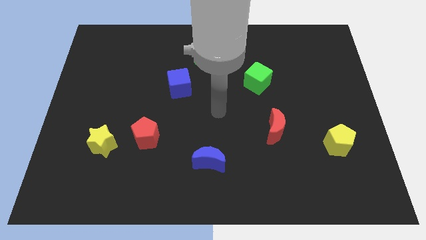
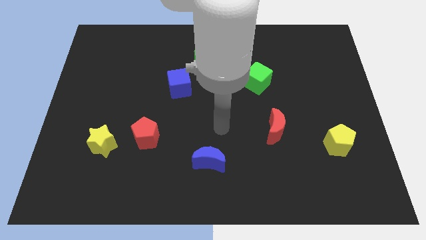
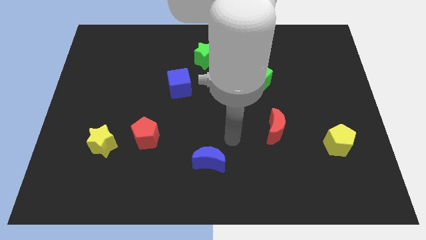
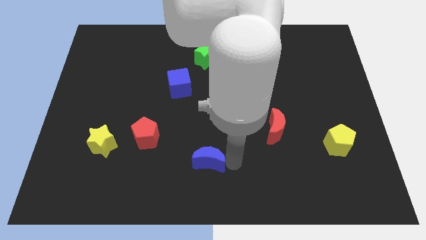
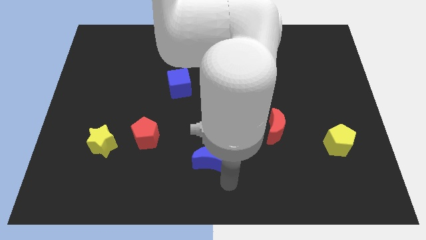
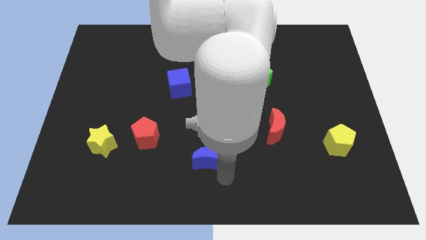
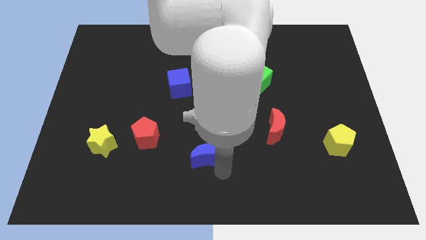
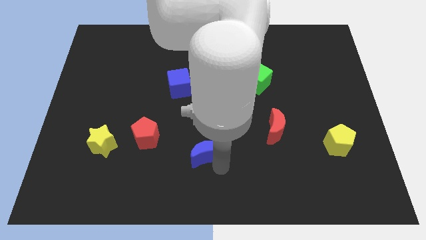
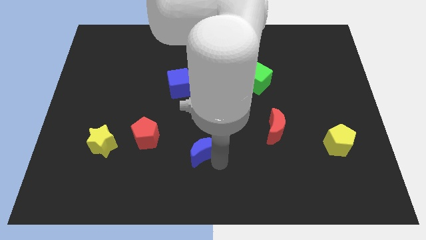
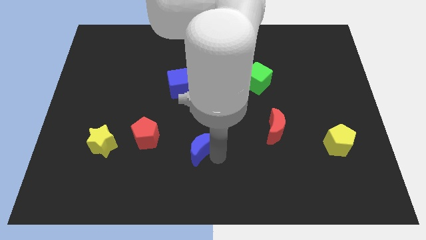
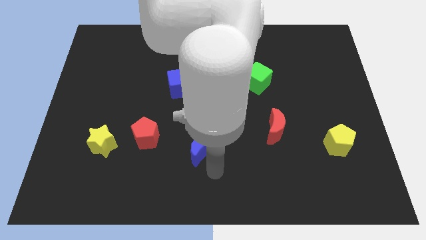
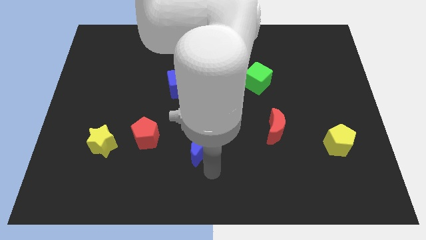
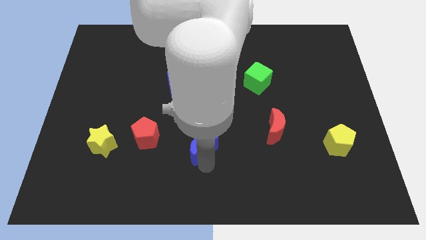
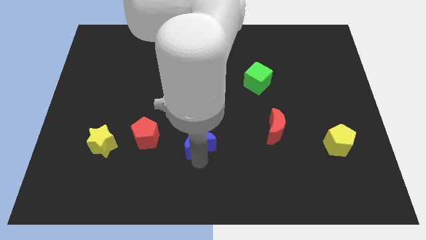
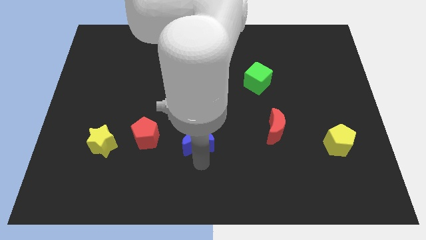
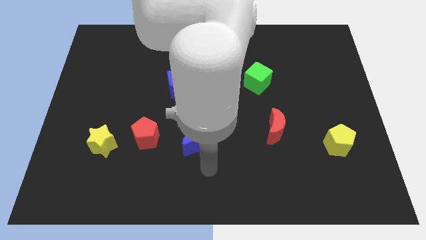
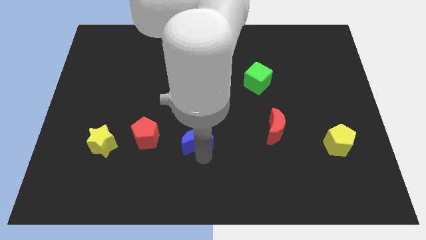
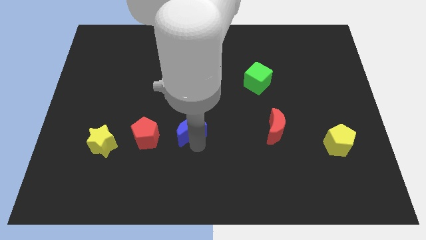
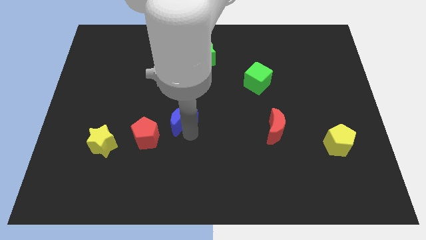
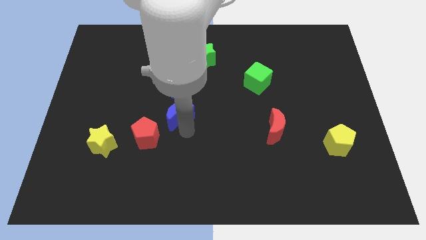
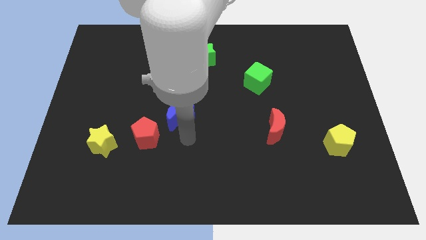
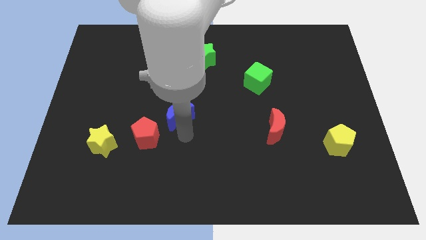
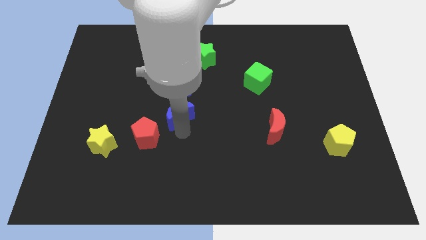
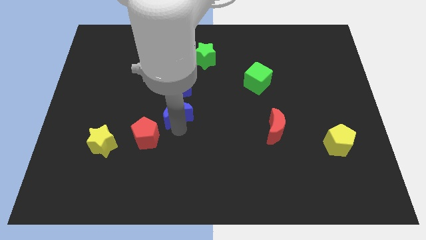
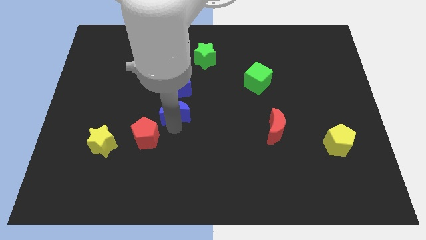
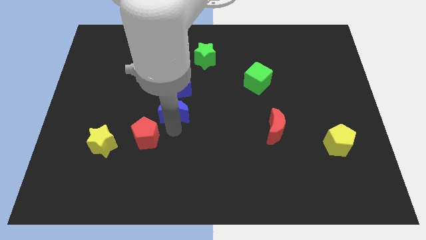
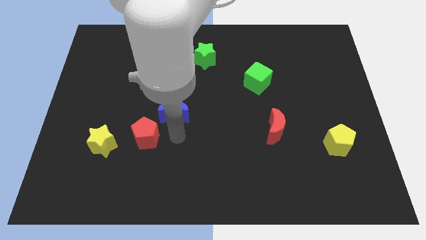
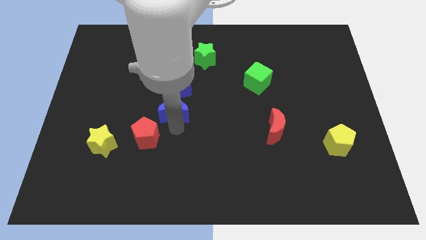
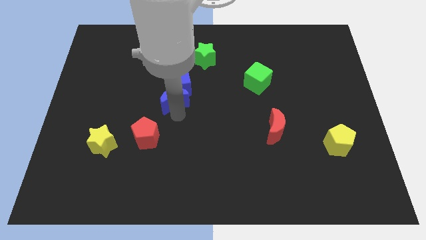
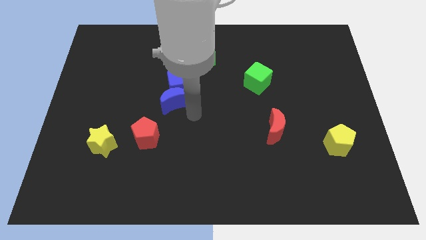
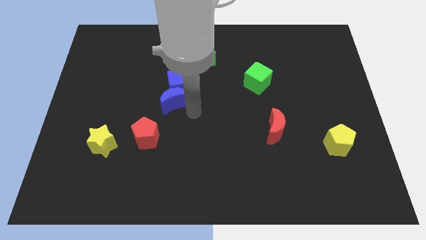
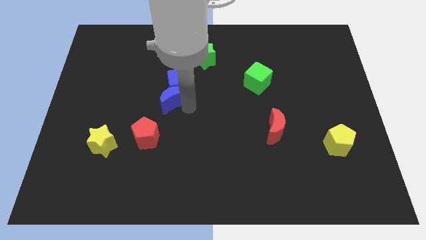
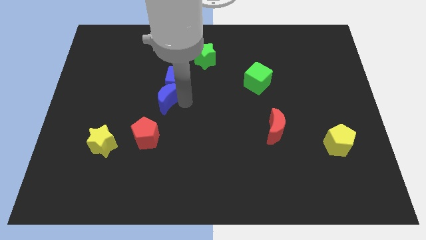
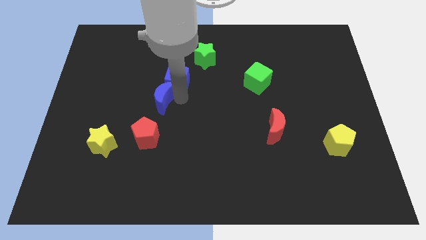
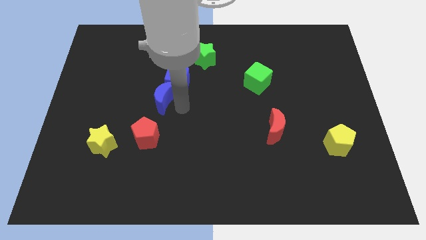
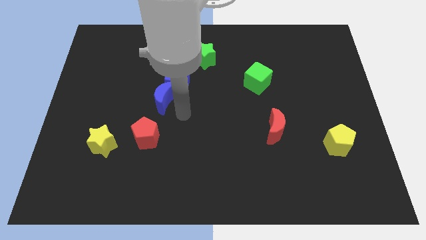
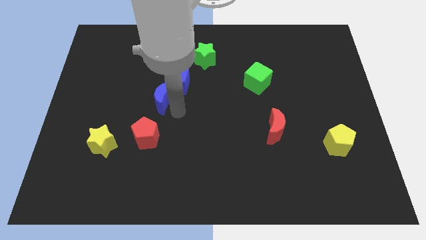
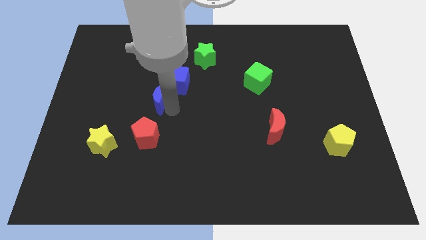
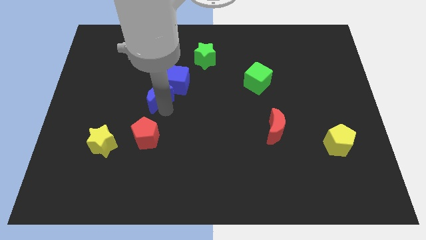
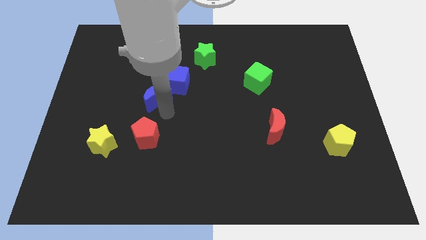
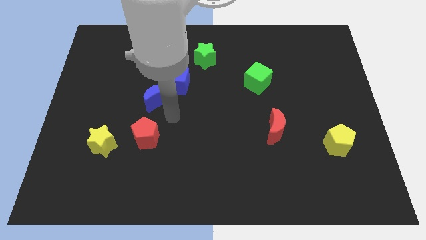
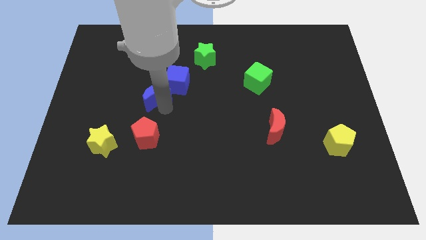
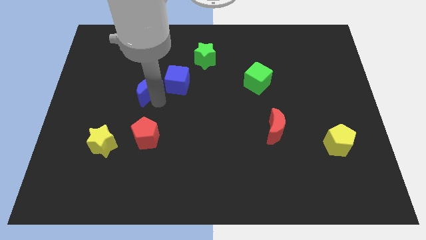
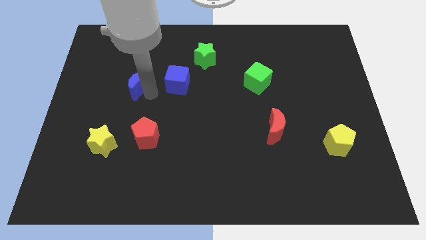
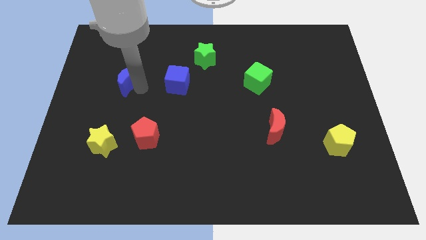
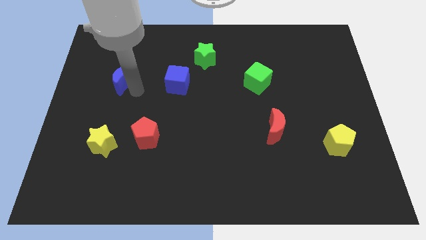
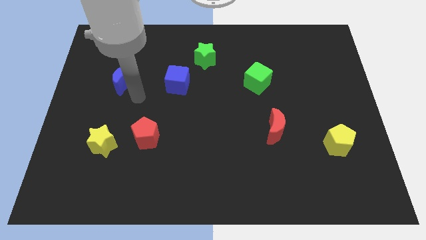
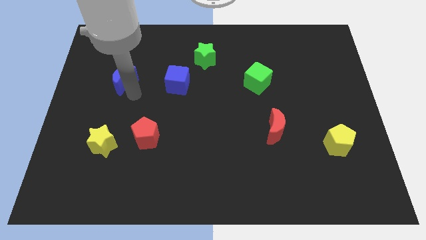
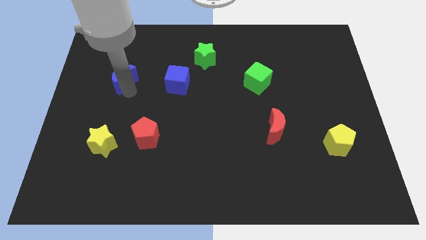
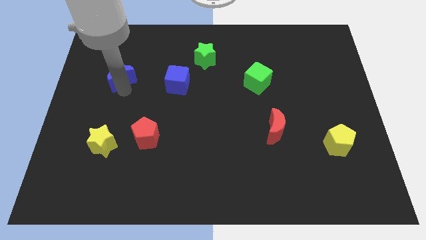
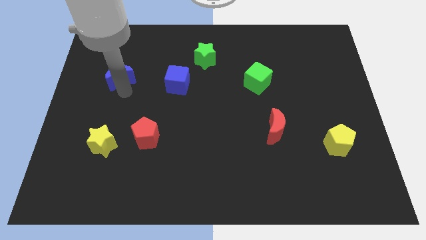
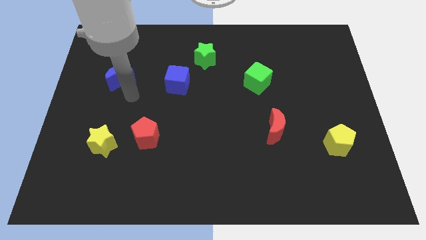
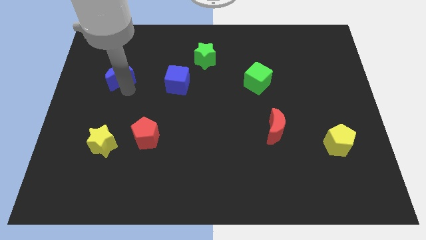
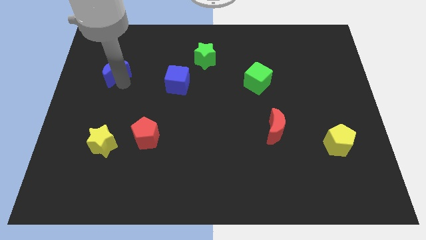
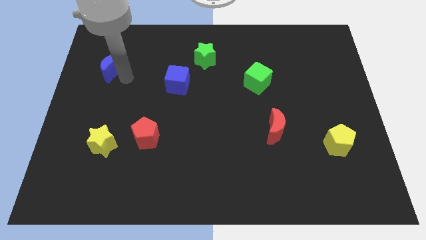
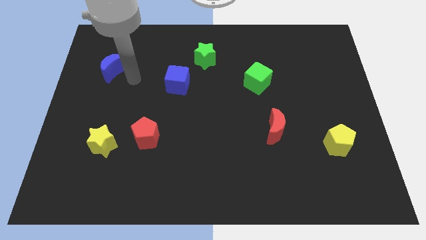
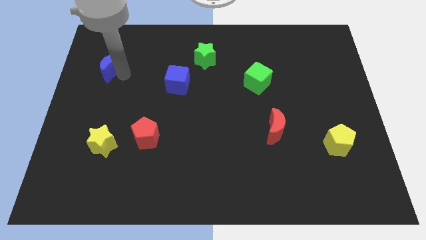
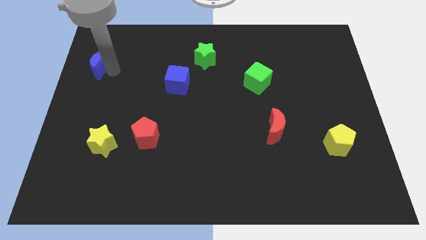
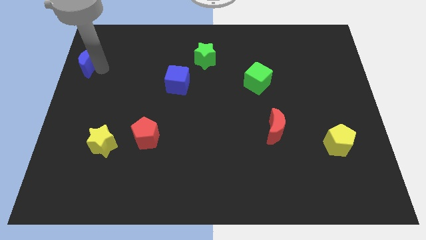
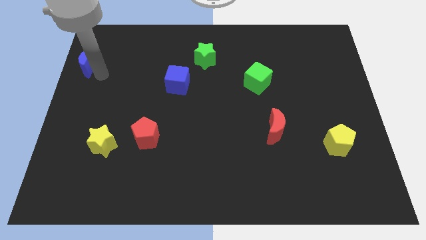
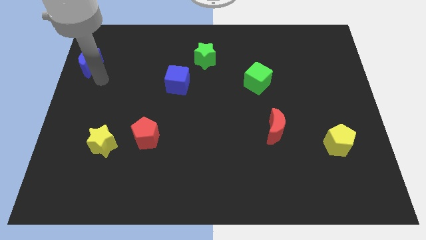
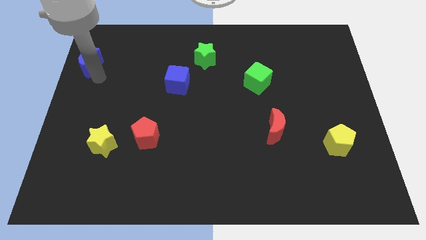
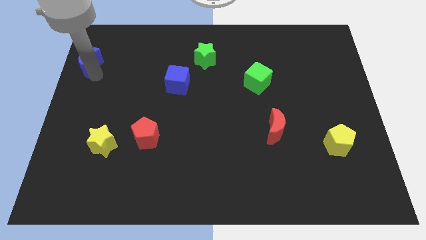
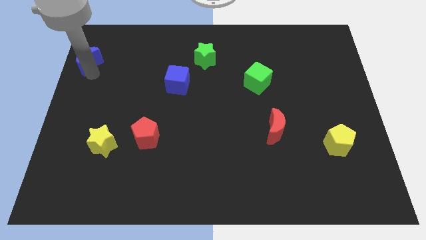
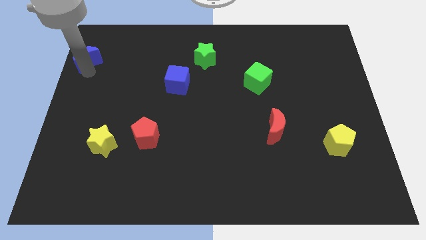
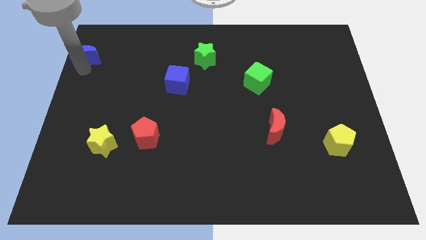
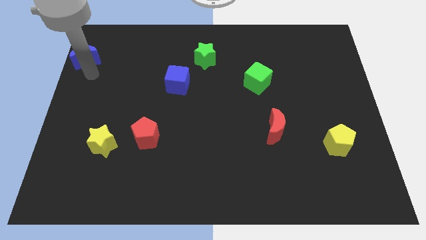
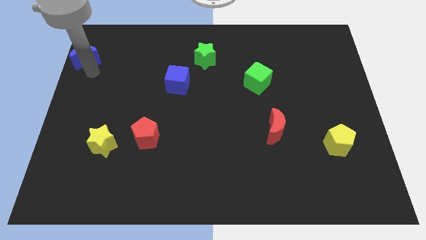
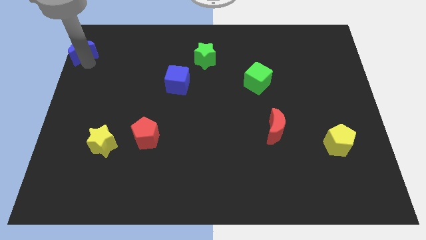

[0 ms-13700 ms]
move the blue moon to the top left corner

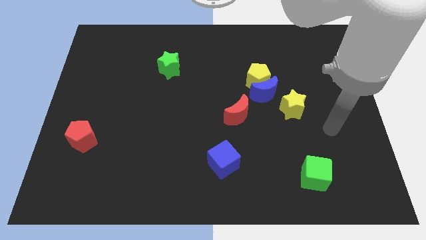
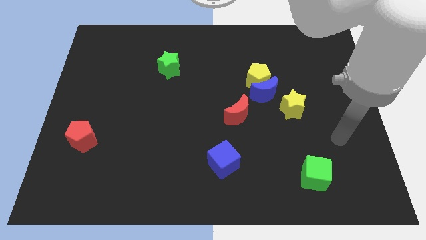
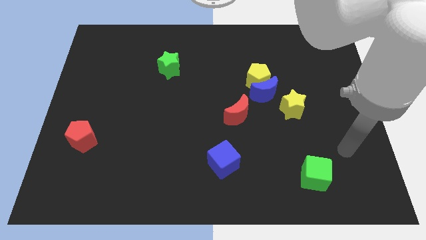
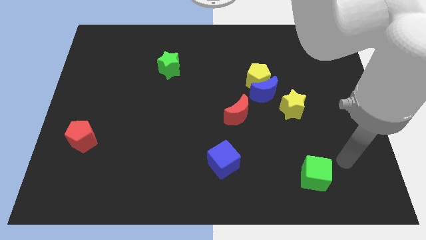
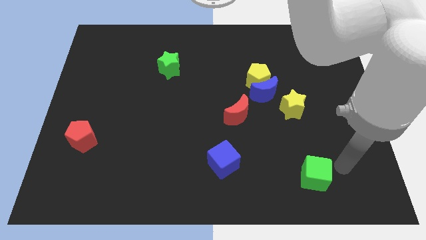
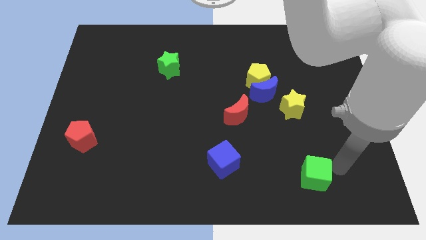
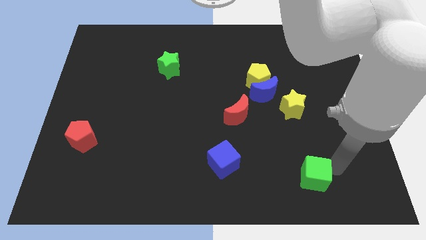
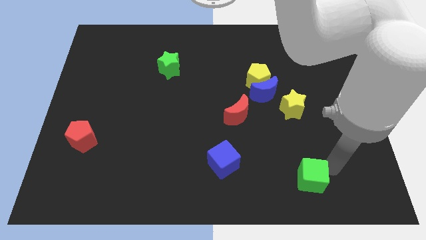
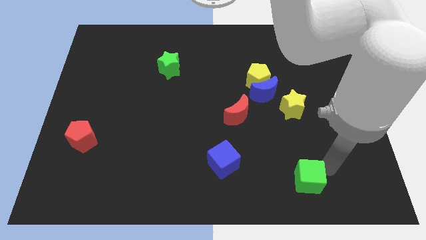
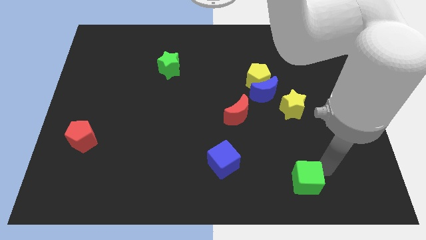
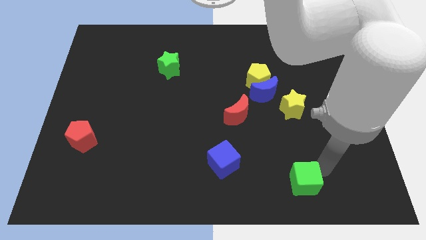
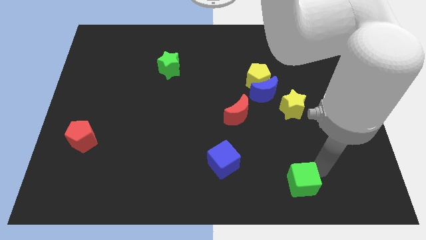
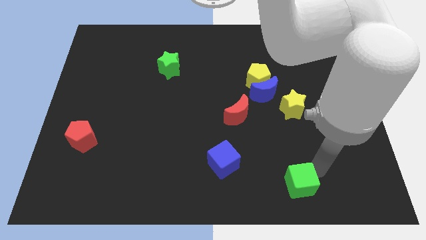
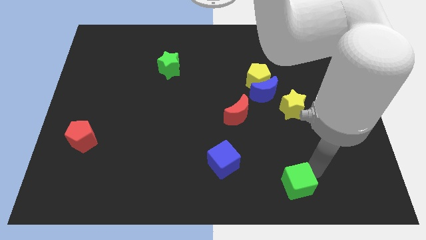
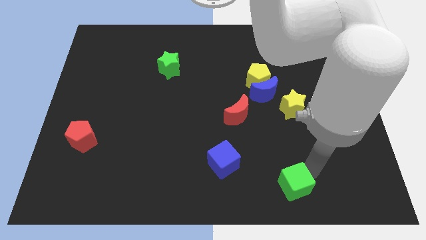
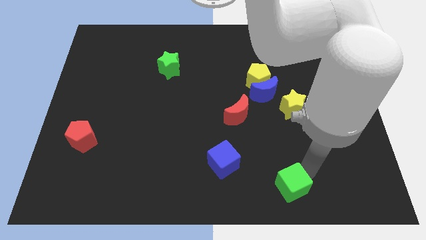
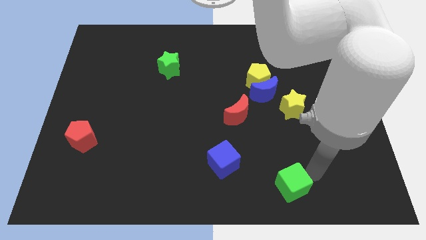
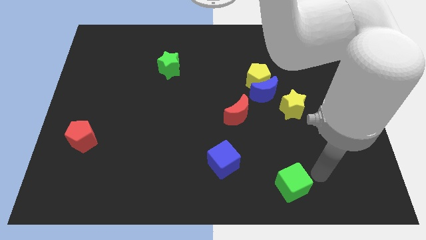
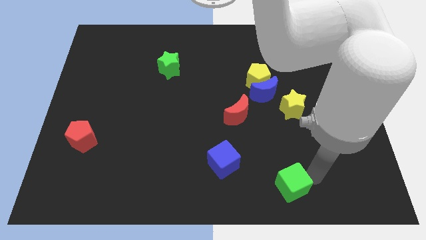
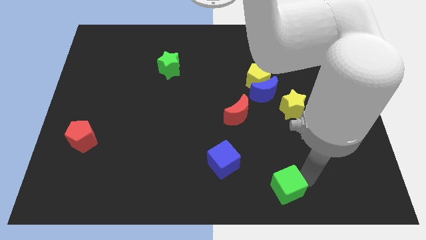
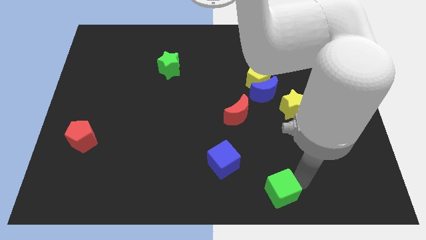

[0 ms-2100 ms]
move the green cube to the bottom side
